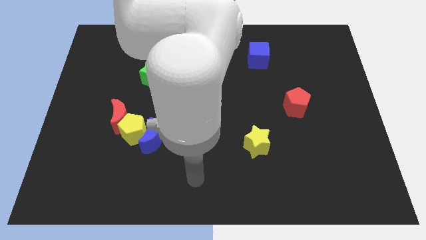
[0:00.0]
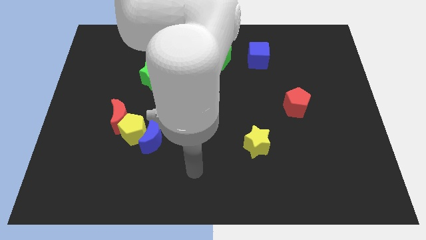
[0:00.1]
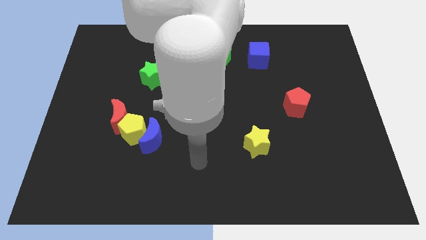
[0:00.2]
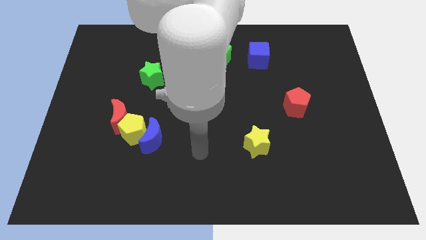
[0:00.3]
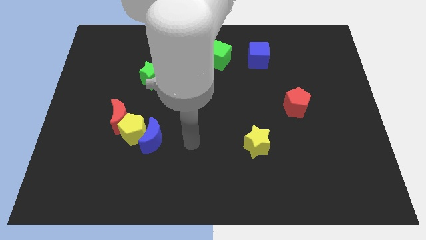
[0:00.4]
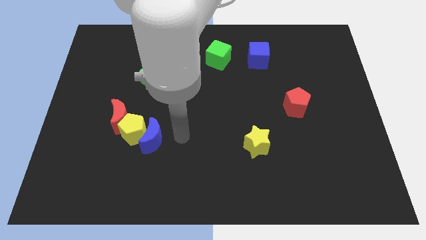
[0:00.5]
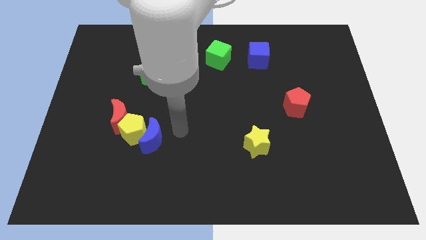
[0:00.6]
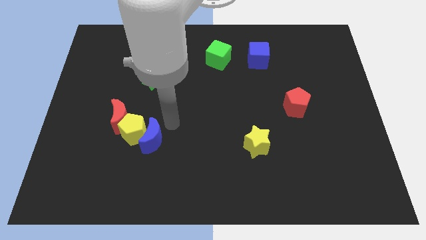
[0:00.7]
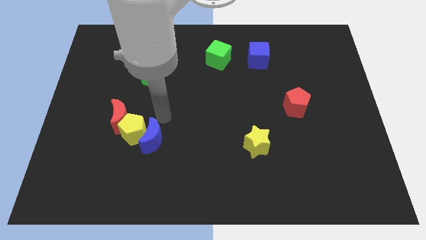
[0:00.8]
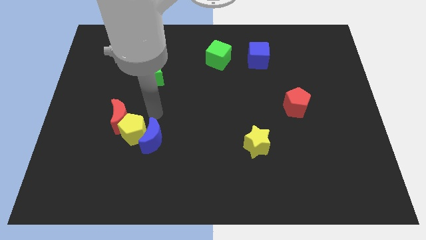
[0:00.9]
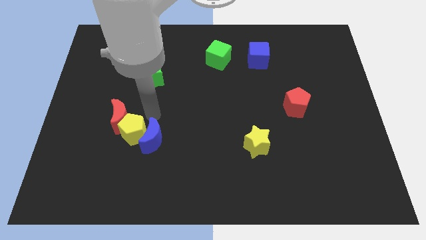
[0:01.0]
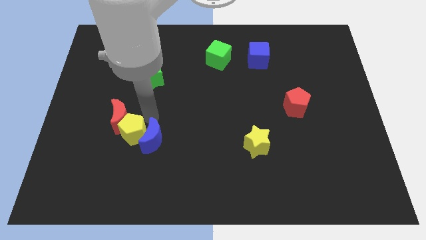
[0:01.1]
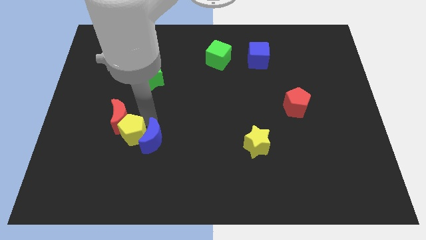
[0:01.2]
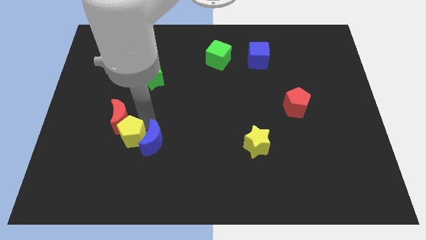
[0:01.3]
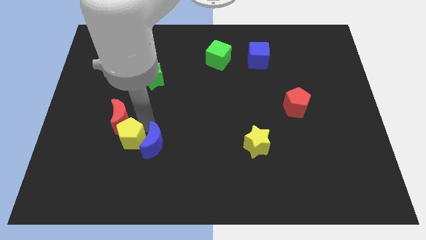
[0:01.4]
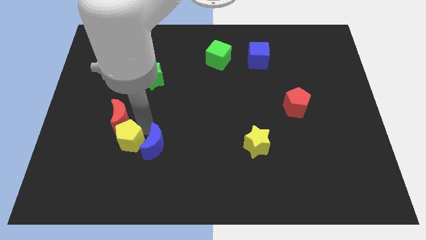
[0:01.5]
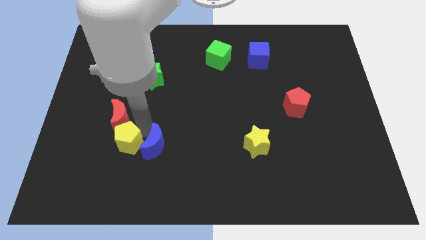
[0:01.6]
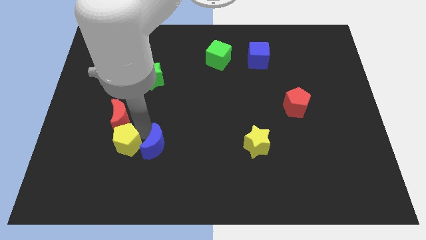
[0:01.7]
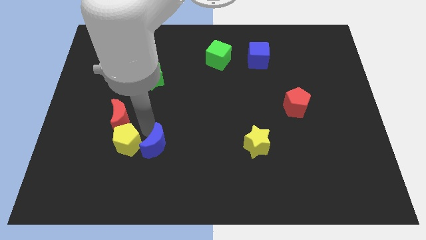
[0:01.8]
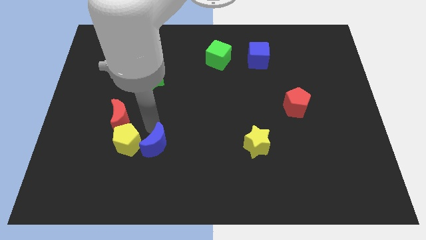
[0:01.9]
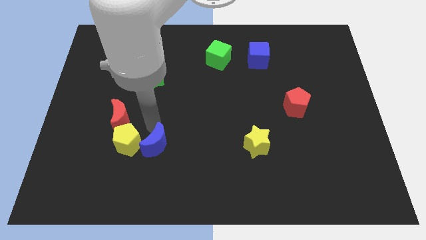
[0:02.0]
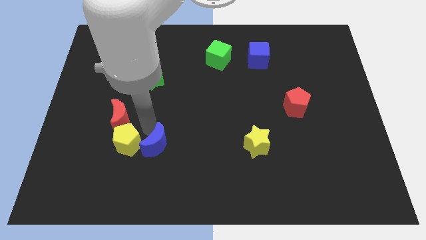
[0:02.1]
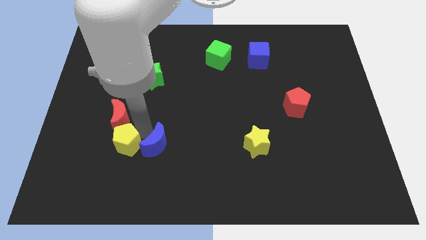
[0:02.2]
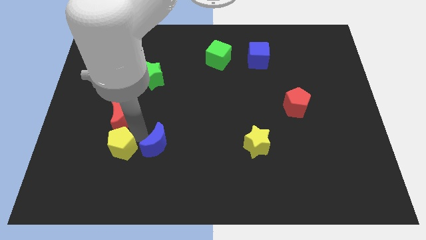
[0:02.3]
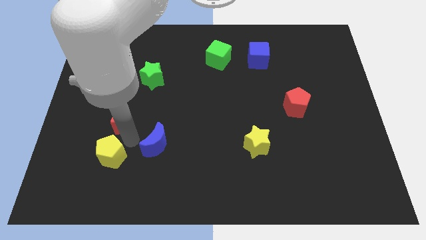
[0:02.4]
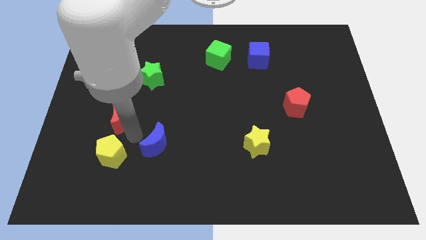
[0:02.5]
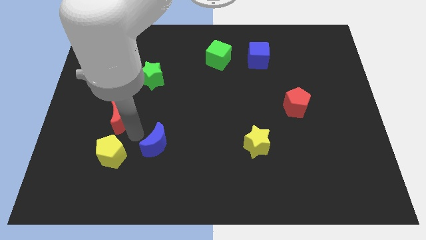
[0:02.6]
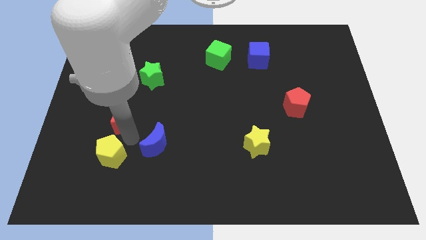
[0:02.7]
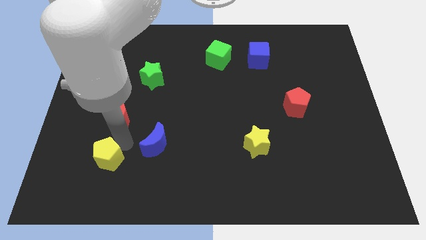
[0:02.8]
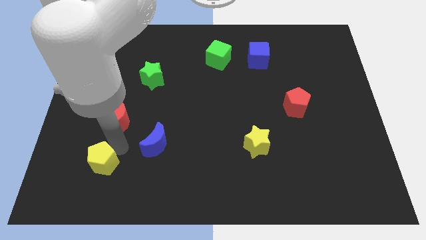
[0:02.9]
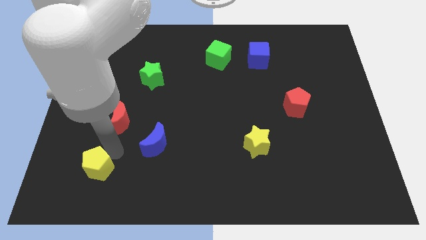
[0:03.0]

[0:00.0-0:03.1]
move the yellow pentagon away from the red moon and blue moon

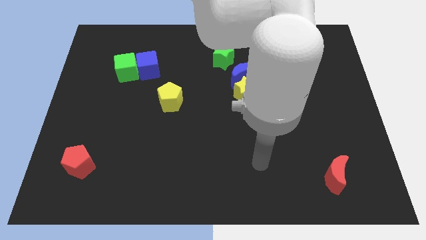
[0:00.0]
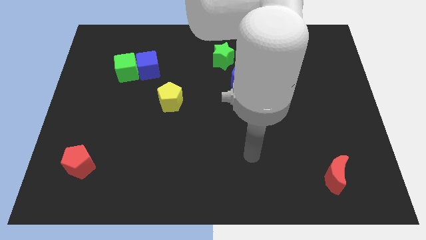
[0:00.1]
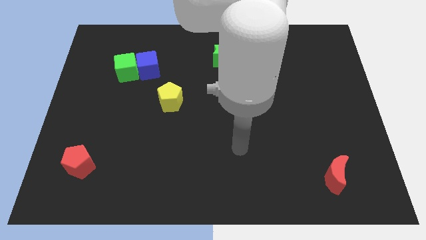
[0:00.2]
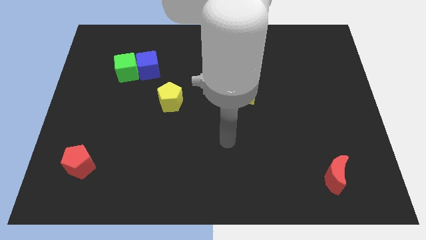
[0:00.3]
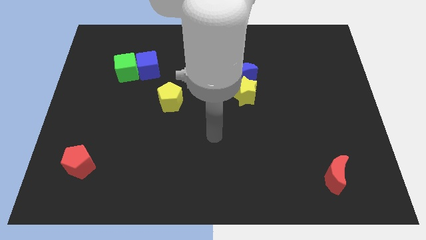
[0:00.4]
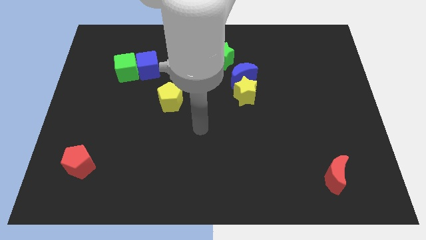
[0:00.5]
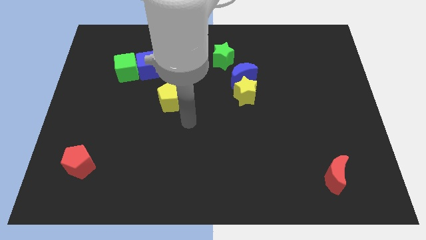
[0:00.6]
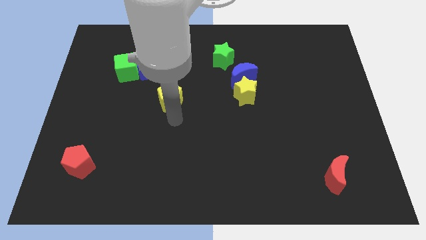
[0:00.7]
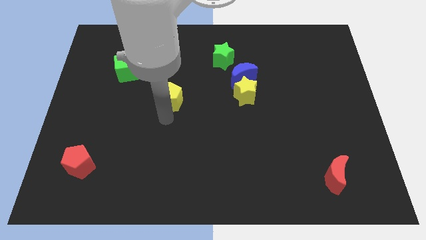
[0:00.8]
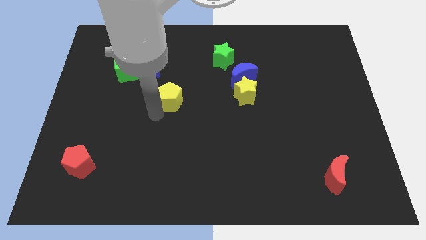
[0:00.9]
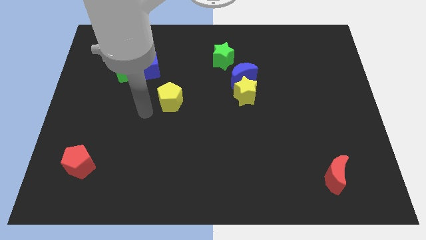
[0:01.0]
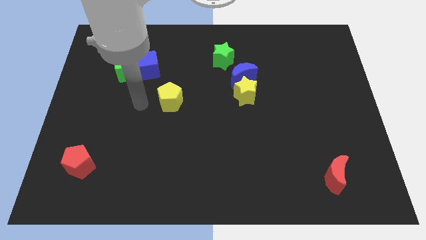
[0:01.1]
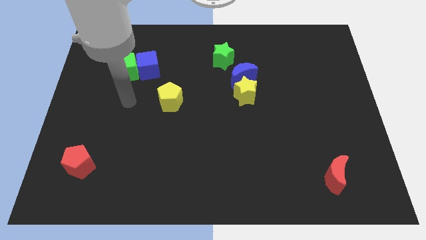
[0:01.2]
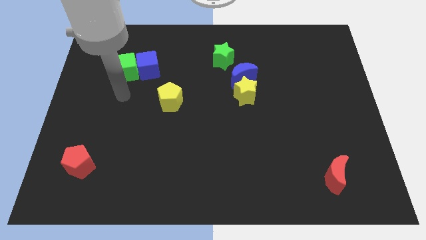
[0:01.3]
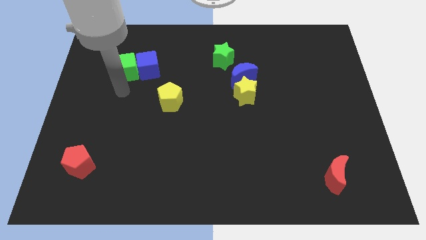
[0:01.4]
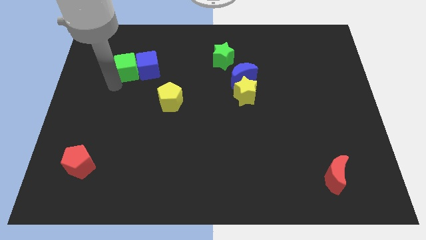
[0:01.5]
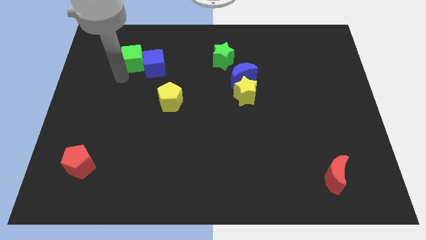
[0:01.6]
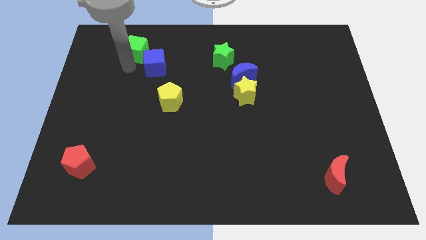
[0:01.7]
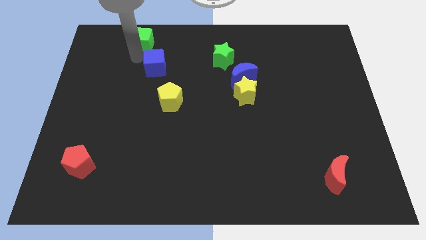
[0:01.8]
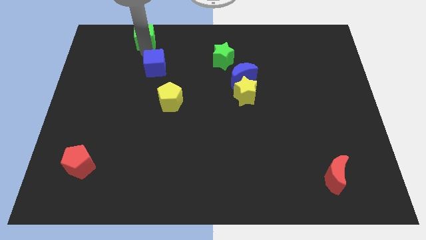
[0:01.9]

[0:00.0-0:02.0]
move the blue cube away from the green cube

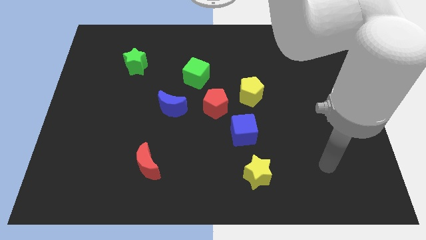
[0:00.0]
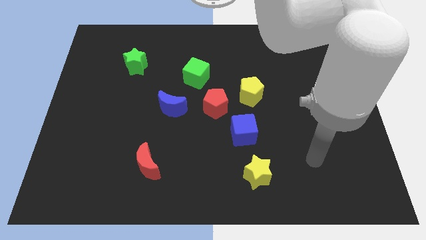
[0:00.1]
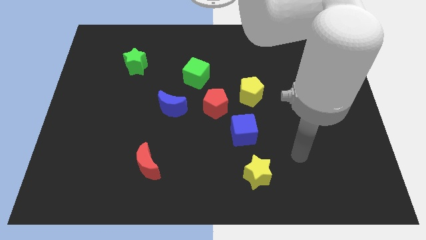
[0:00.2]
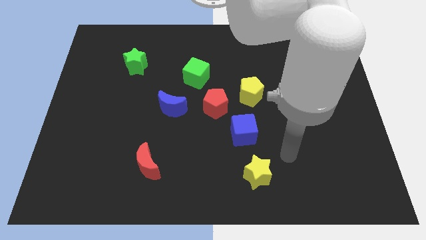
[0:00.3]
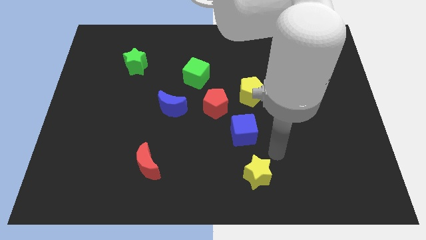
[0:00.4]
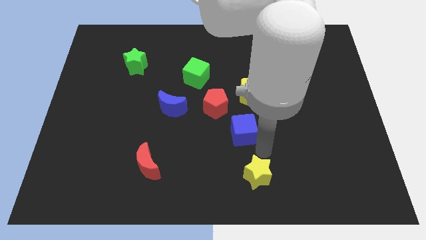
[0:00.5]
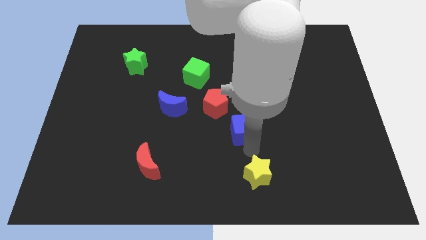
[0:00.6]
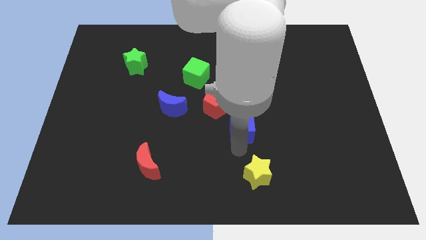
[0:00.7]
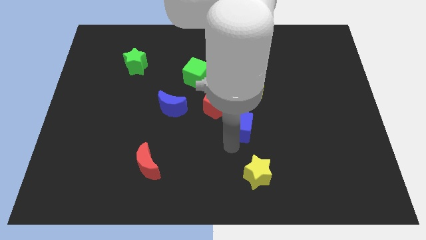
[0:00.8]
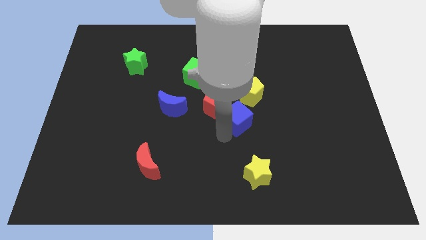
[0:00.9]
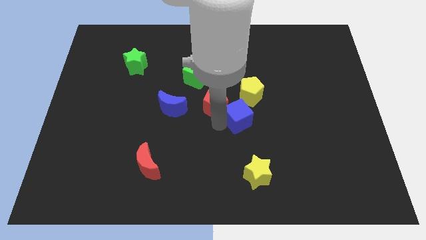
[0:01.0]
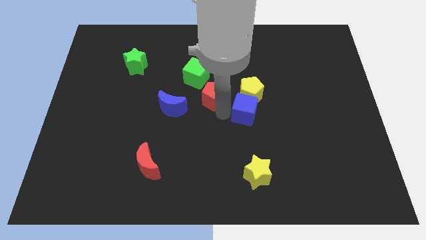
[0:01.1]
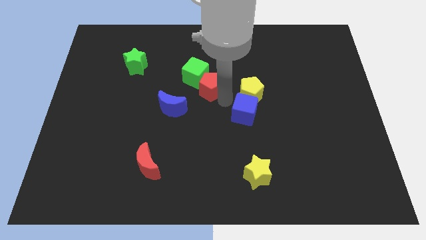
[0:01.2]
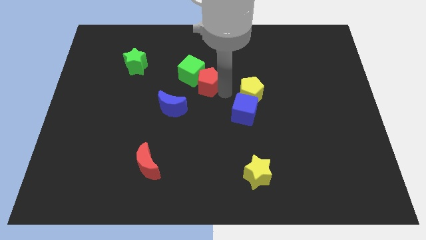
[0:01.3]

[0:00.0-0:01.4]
separate the yellow pentagon from the red pentagon

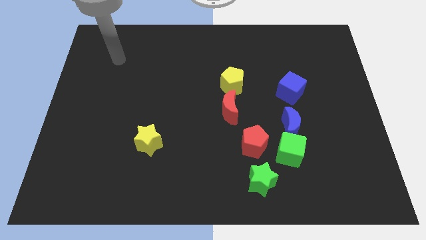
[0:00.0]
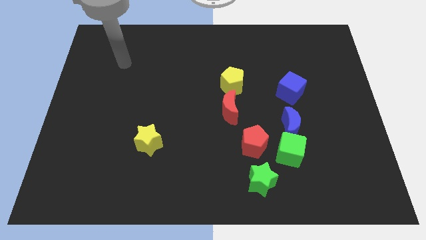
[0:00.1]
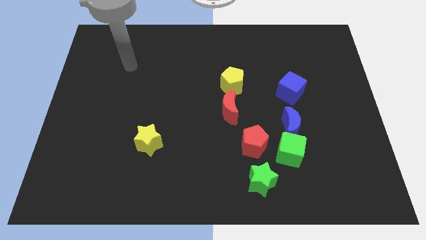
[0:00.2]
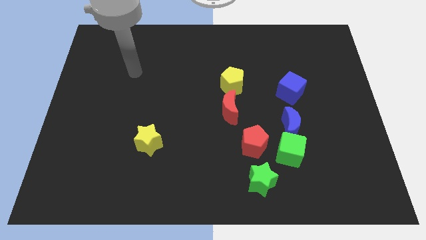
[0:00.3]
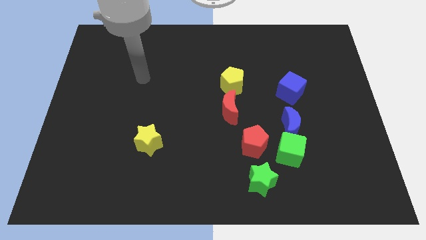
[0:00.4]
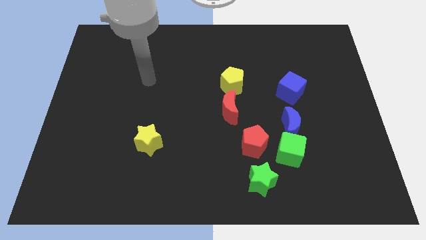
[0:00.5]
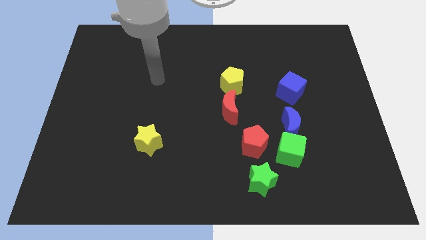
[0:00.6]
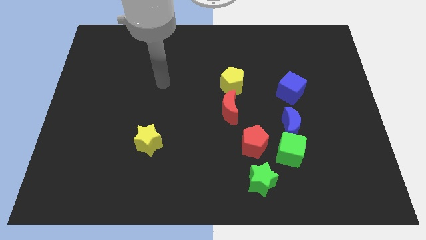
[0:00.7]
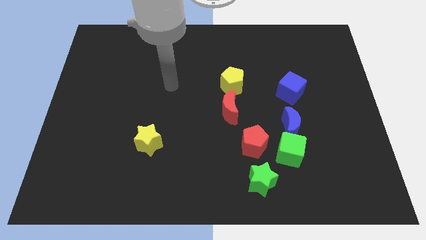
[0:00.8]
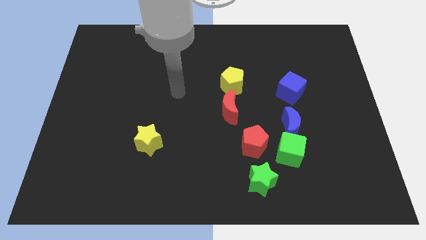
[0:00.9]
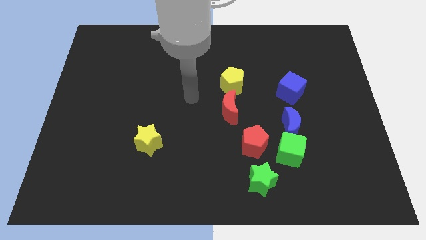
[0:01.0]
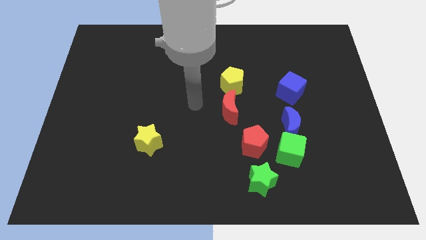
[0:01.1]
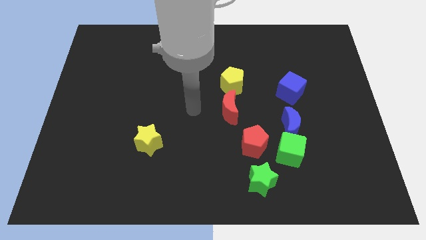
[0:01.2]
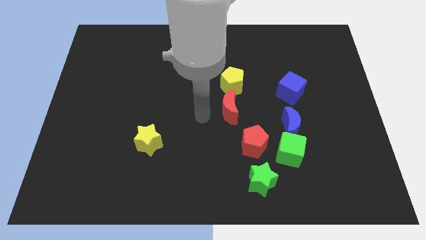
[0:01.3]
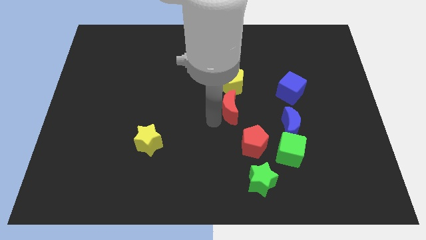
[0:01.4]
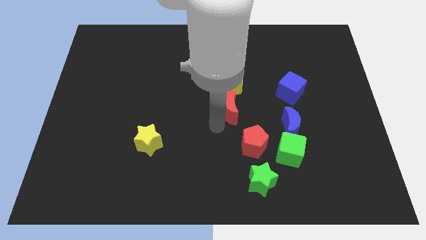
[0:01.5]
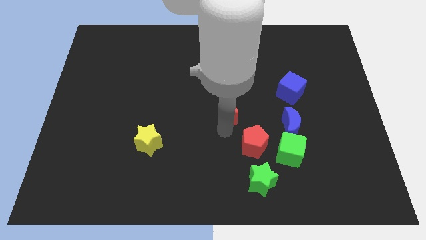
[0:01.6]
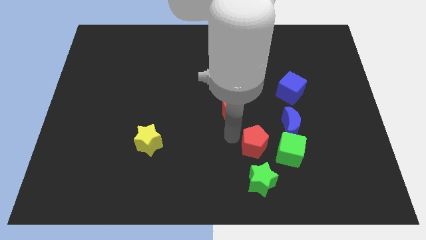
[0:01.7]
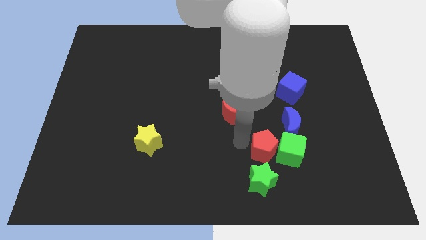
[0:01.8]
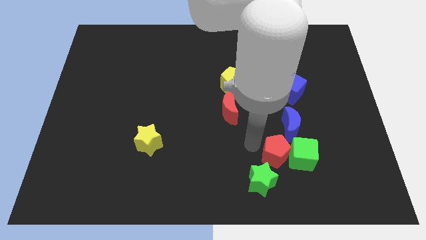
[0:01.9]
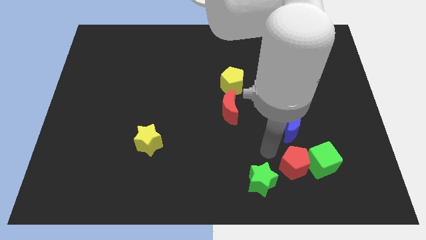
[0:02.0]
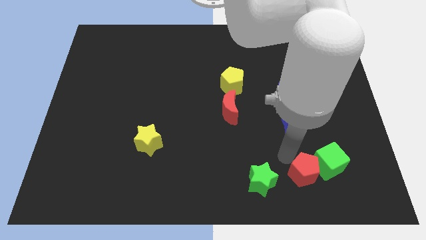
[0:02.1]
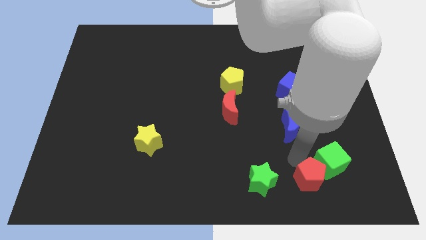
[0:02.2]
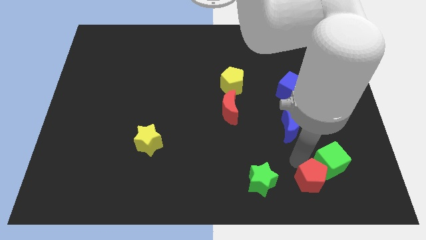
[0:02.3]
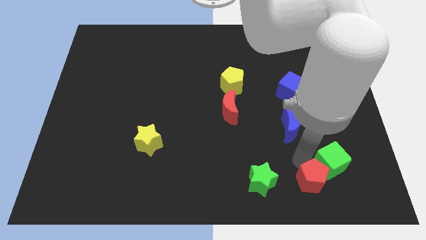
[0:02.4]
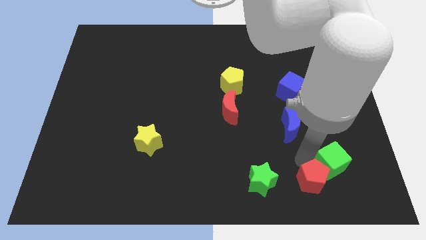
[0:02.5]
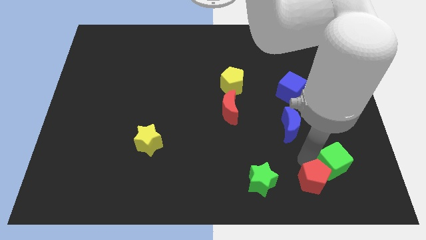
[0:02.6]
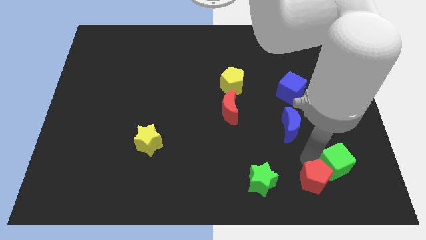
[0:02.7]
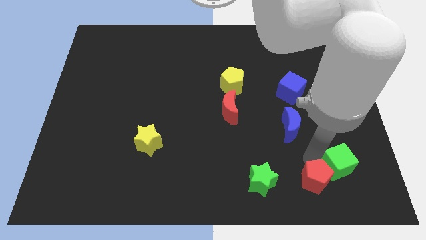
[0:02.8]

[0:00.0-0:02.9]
move the green cube away from the blue moon, red pentagon, and green star
